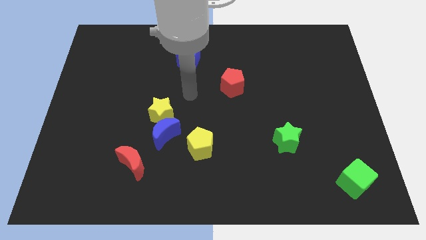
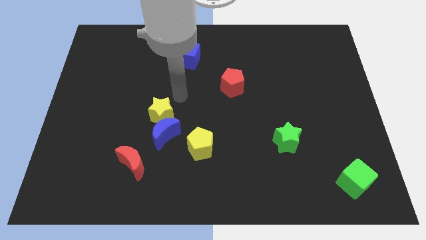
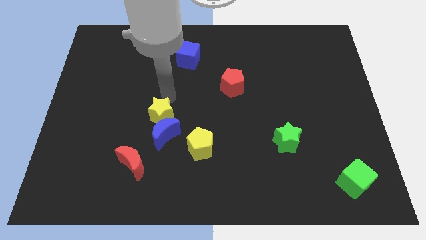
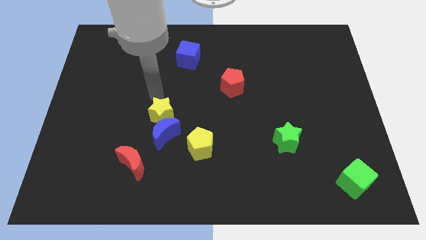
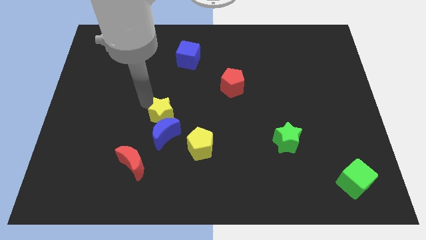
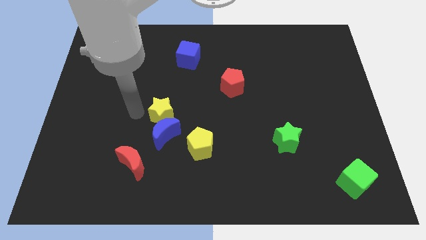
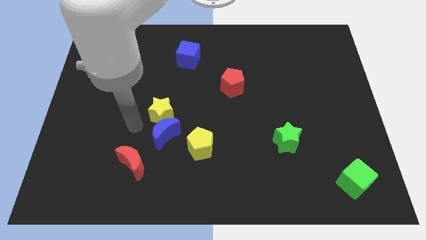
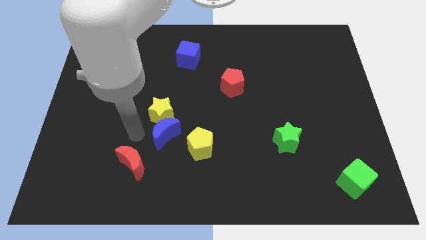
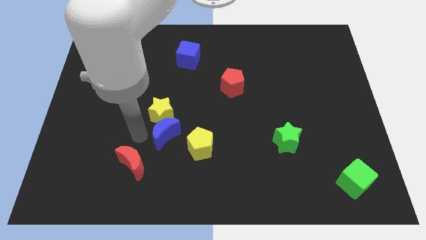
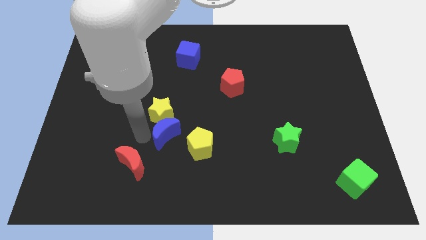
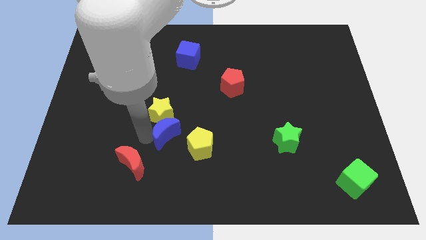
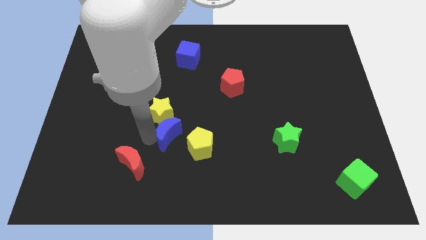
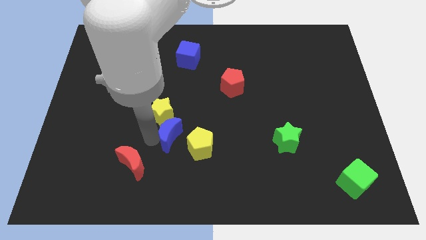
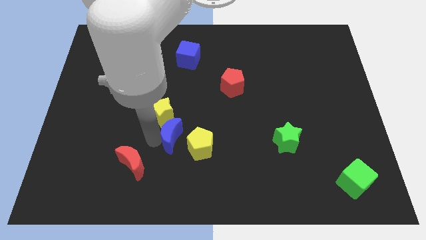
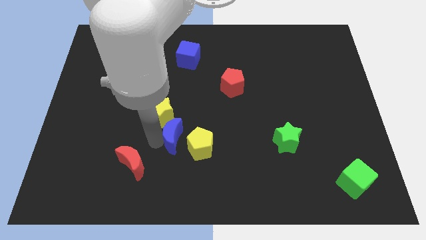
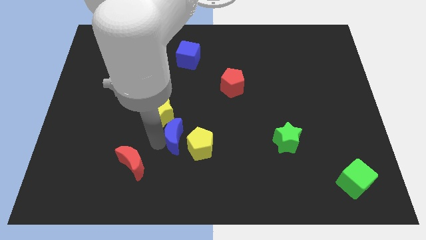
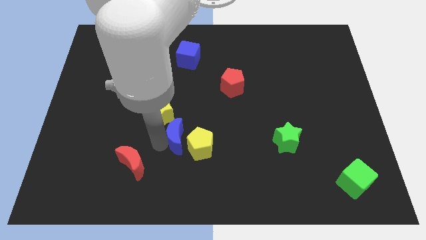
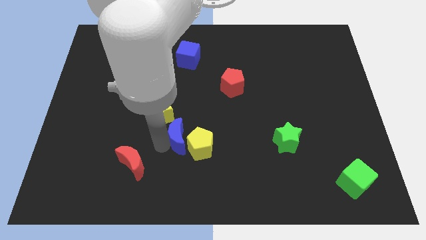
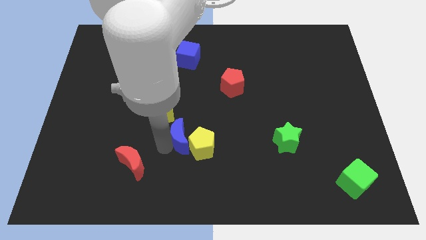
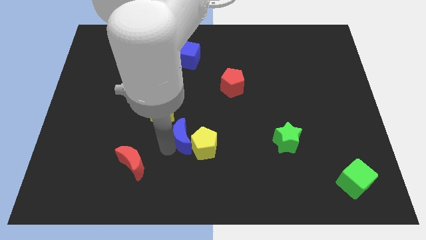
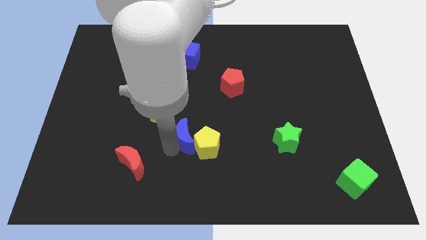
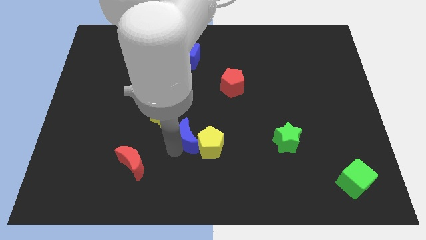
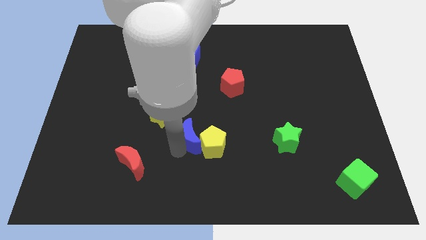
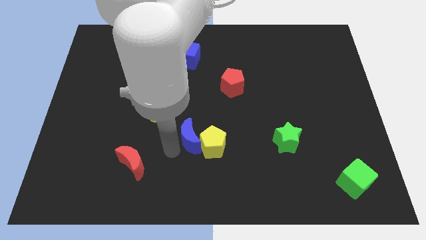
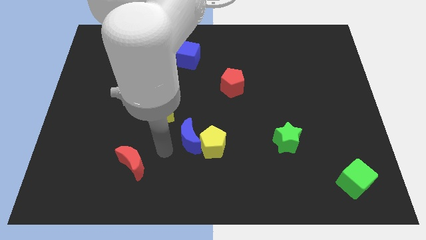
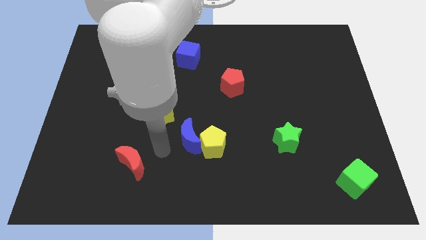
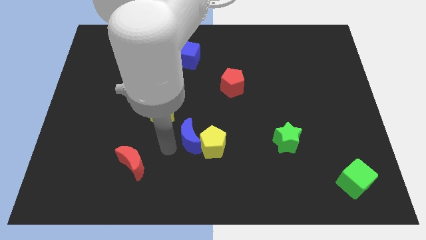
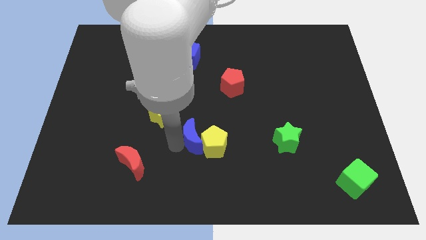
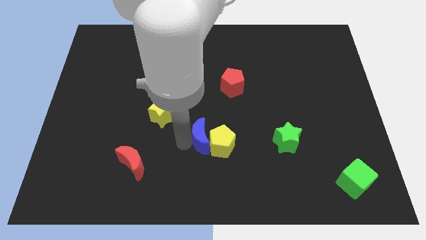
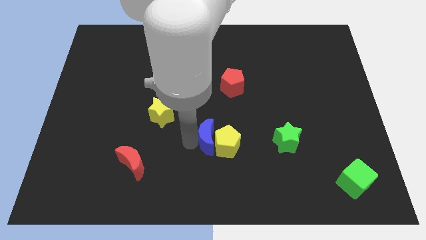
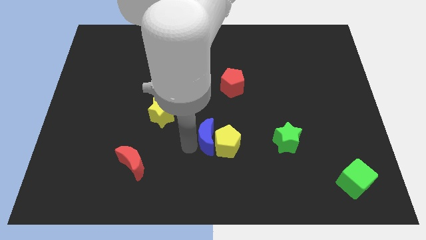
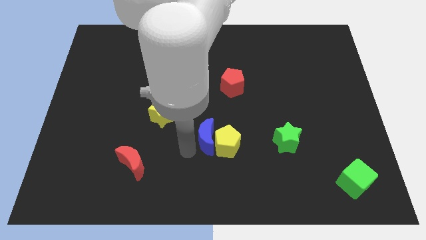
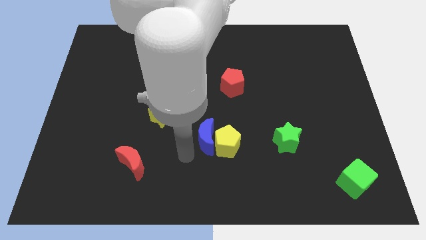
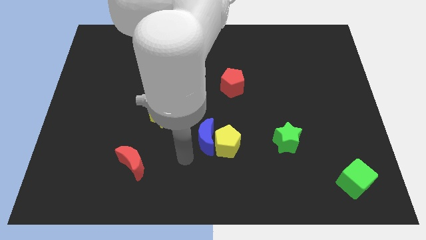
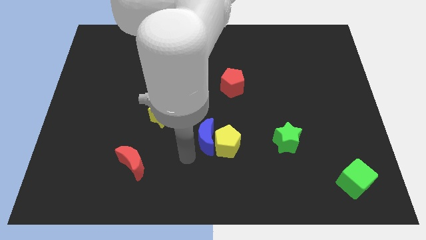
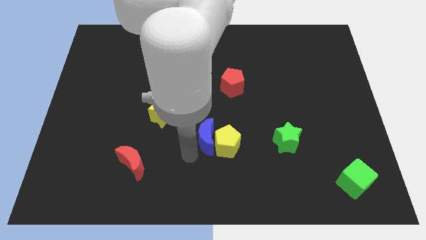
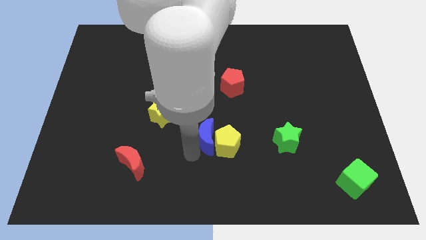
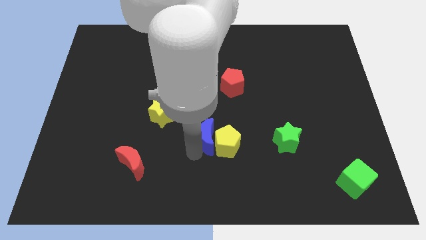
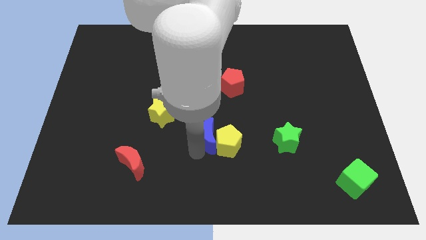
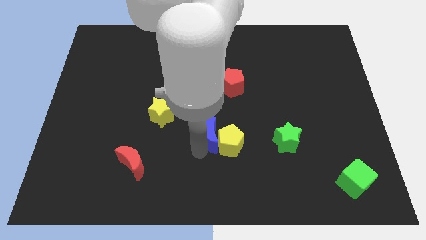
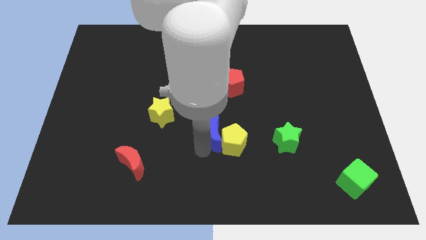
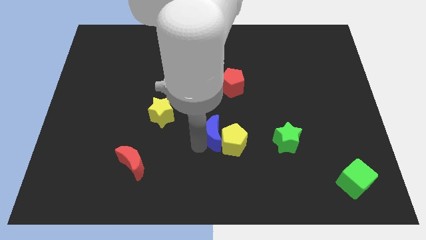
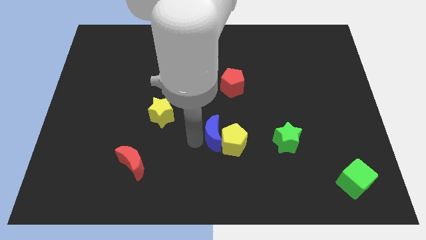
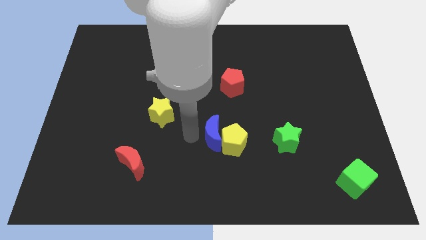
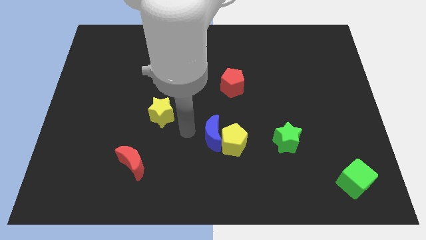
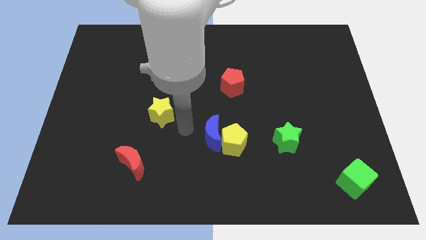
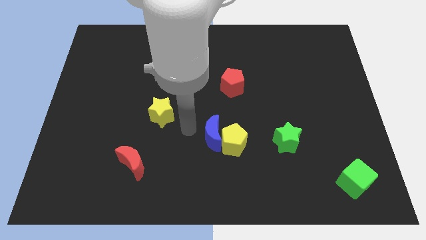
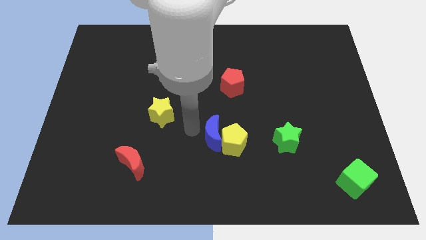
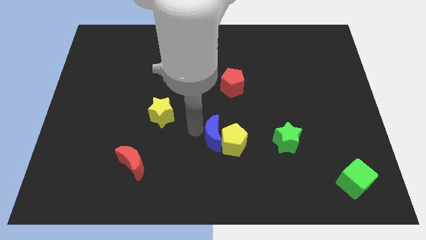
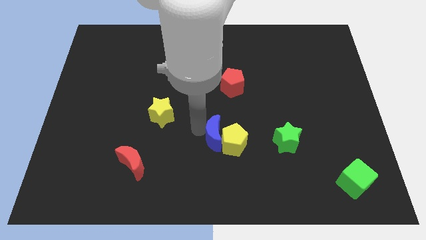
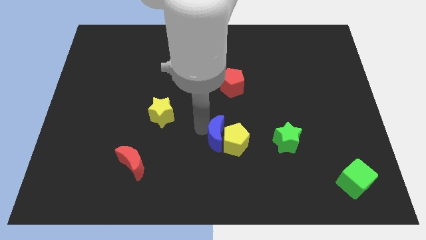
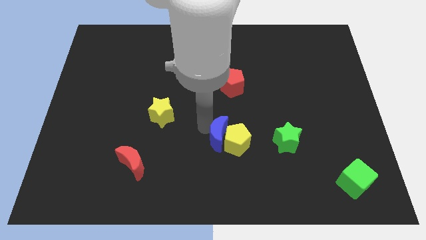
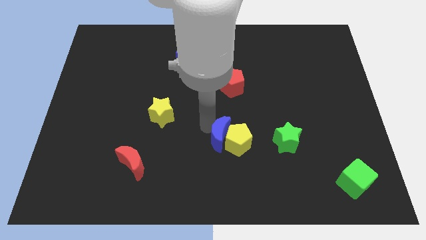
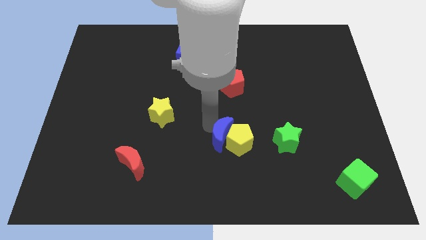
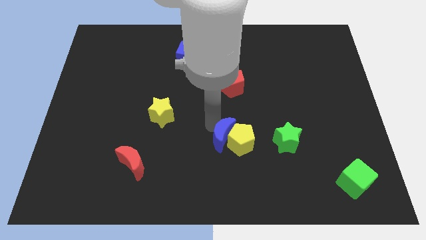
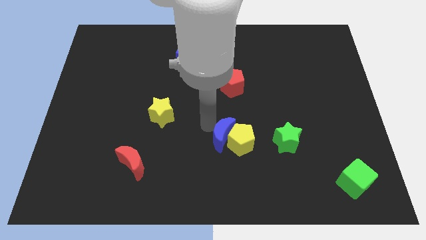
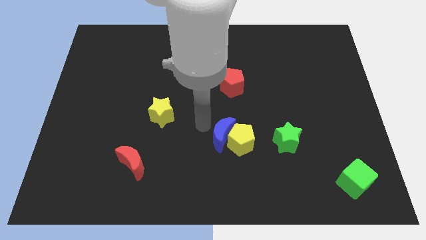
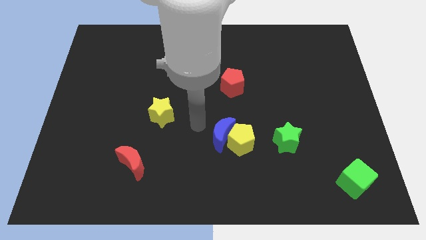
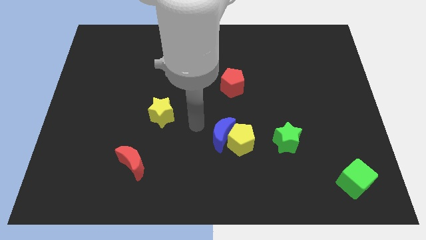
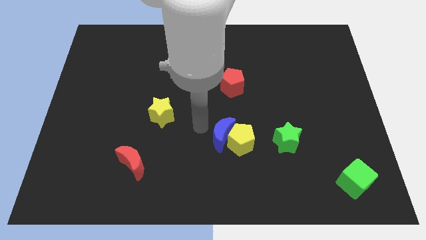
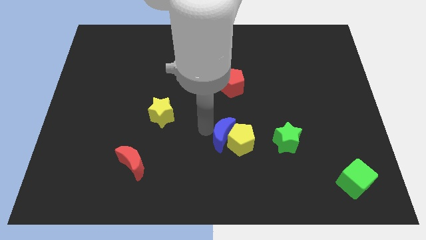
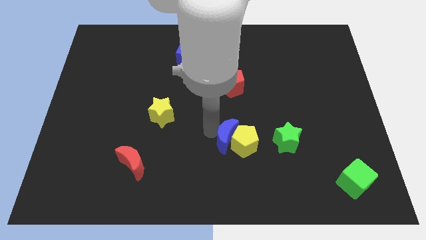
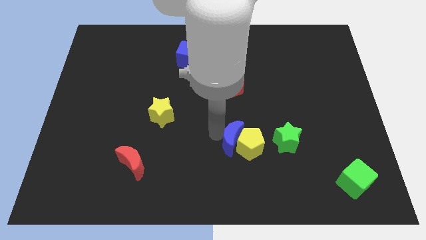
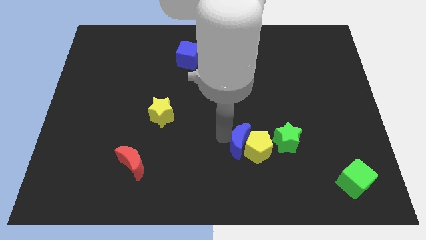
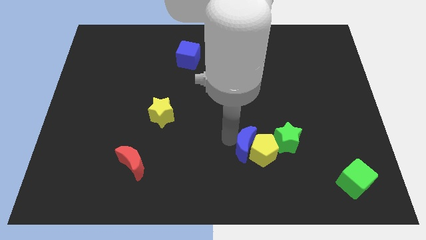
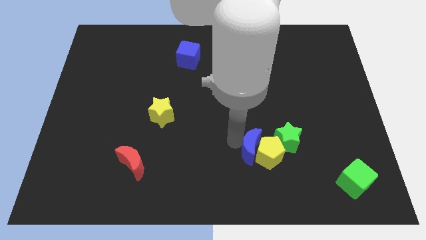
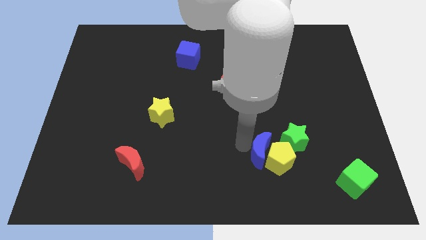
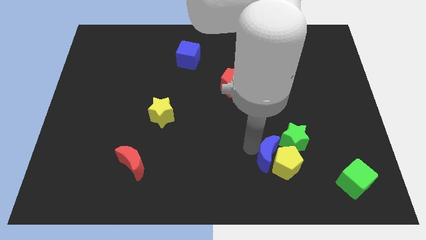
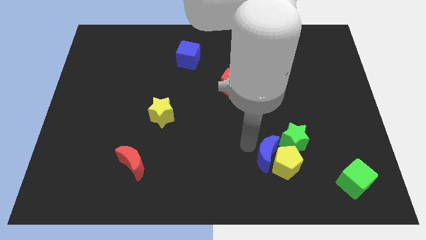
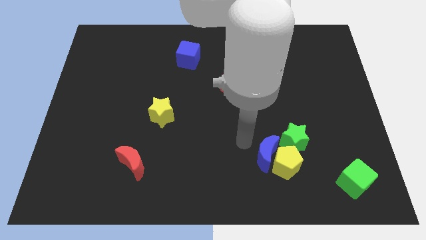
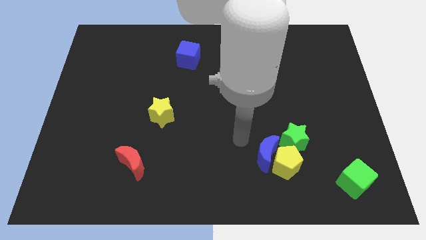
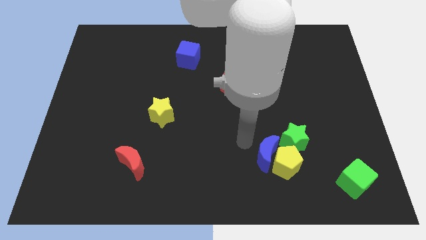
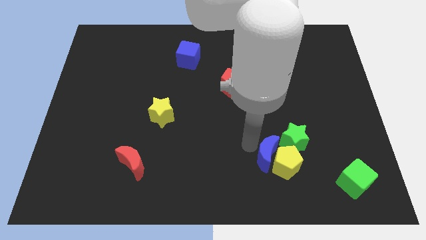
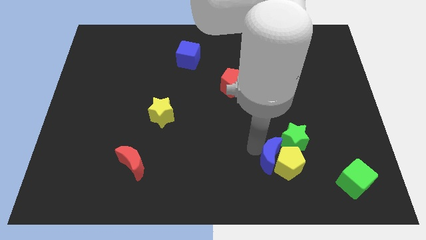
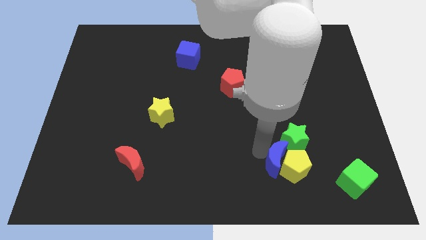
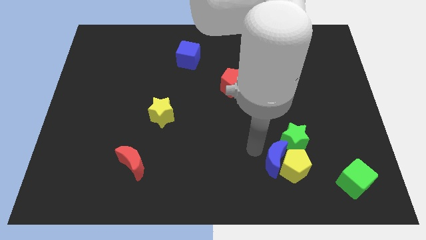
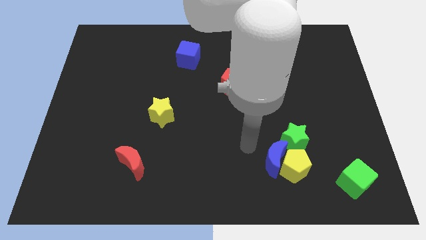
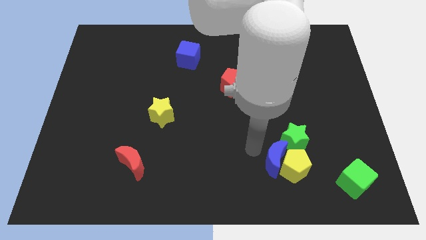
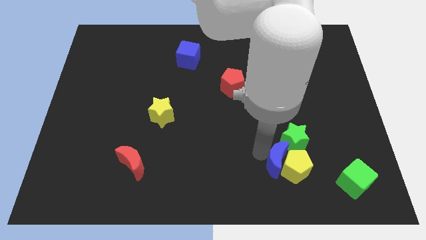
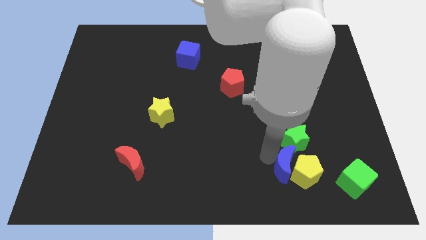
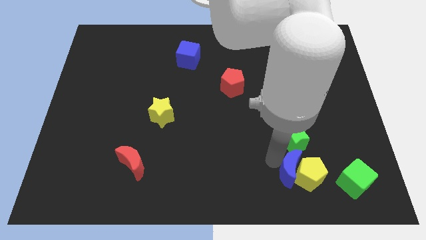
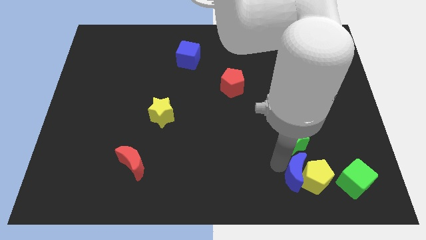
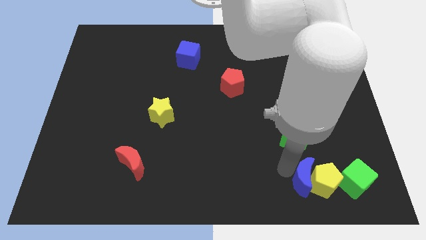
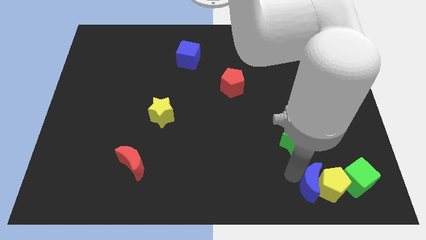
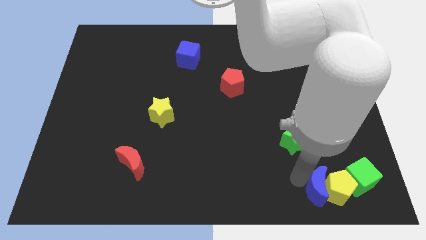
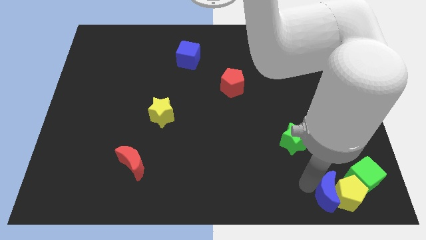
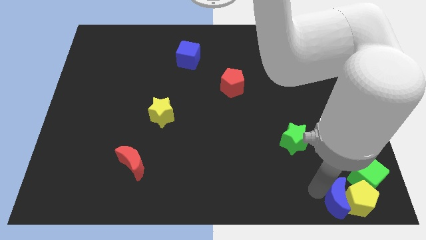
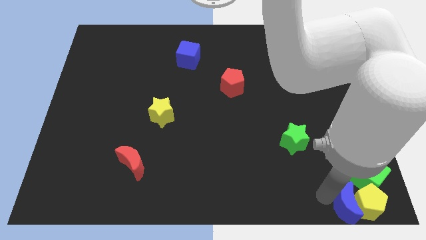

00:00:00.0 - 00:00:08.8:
put the blue moon to the lower right corner
